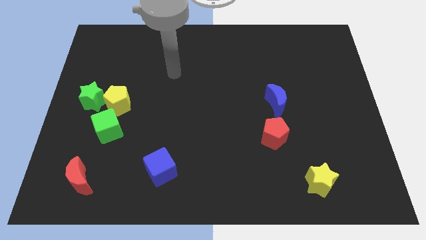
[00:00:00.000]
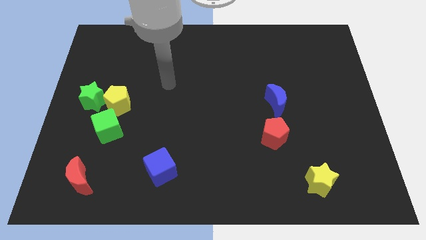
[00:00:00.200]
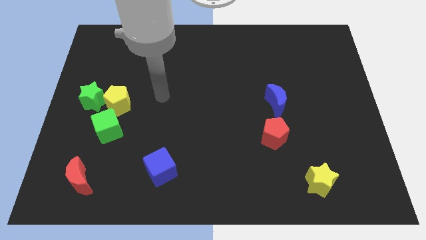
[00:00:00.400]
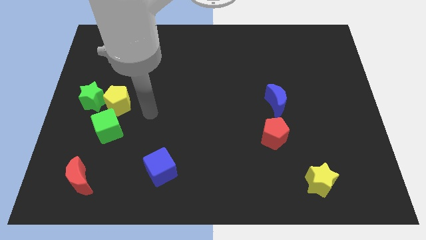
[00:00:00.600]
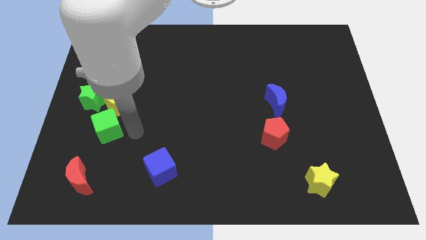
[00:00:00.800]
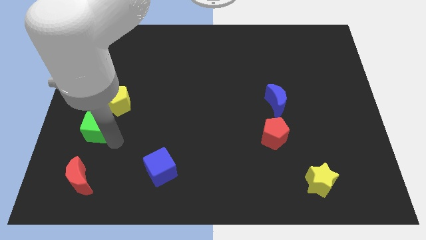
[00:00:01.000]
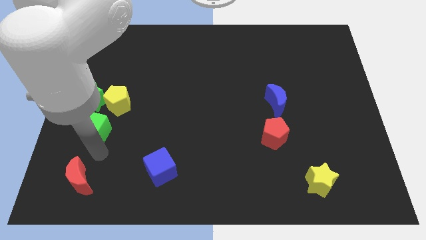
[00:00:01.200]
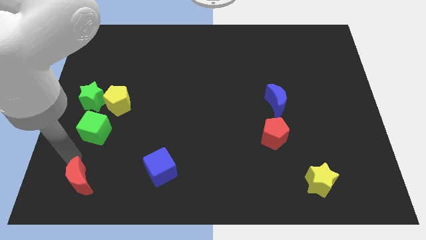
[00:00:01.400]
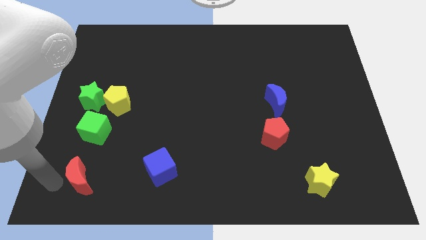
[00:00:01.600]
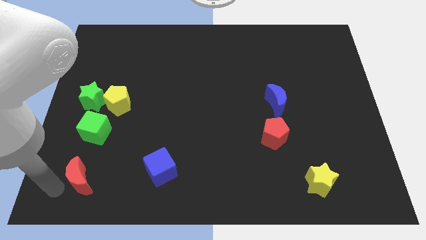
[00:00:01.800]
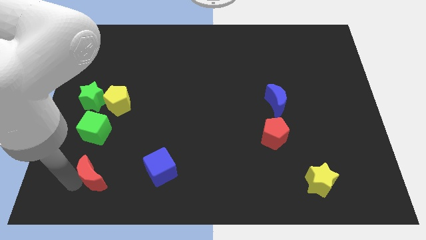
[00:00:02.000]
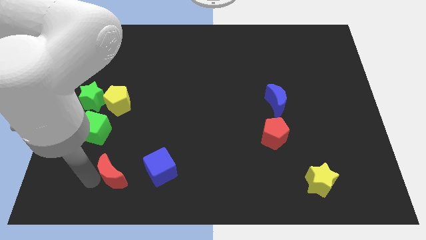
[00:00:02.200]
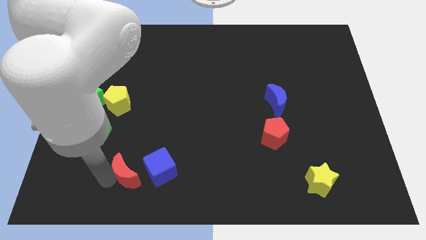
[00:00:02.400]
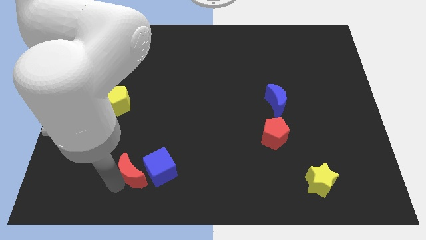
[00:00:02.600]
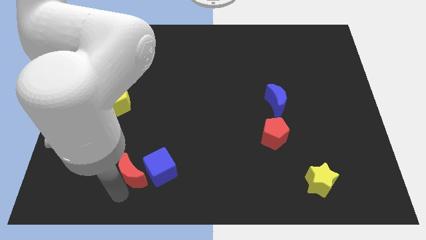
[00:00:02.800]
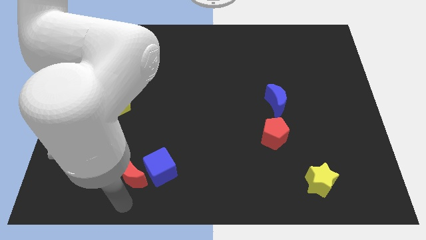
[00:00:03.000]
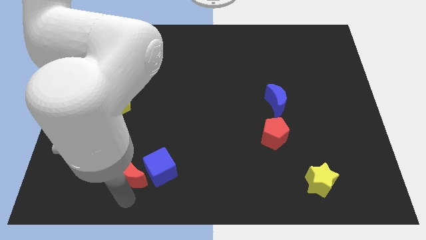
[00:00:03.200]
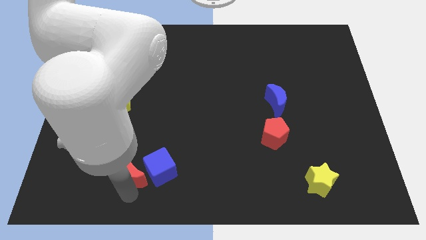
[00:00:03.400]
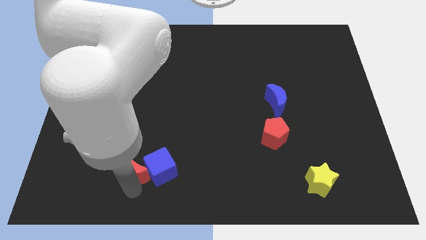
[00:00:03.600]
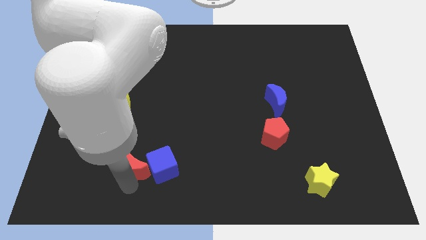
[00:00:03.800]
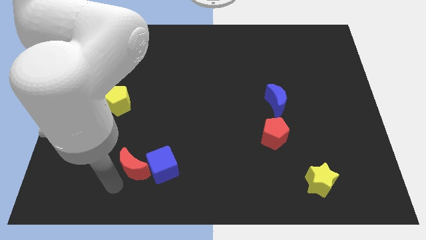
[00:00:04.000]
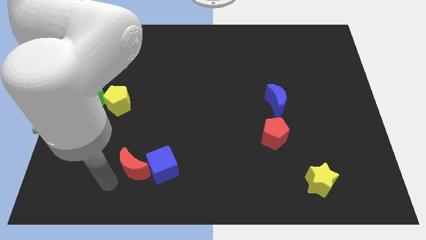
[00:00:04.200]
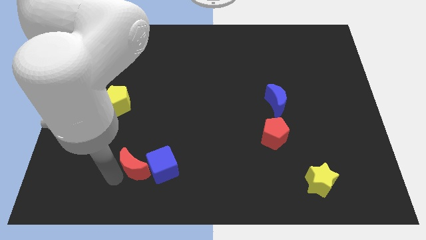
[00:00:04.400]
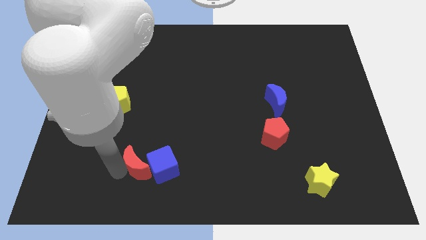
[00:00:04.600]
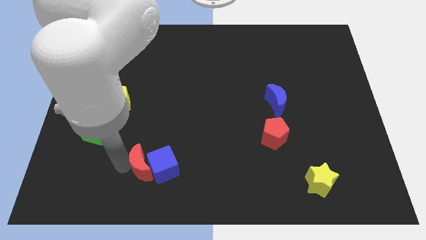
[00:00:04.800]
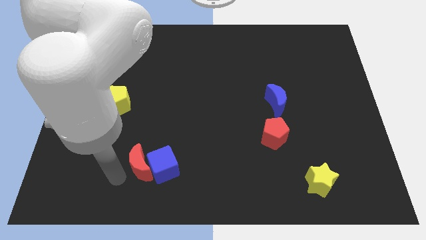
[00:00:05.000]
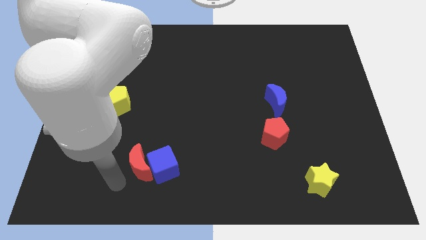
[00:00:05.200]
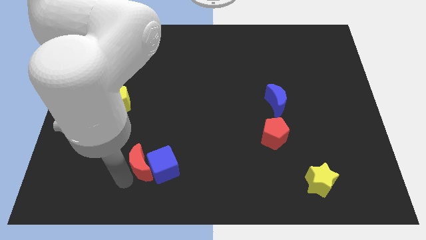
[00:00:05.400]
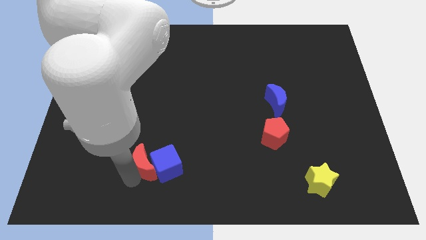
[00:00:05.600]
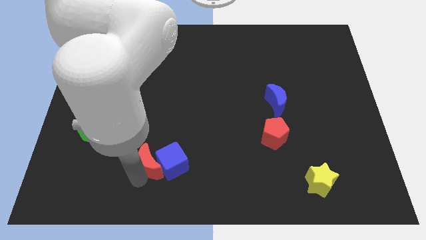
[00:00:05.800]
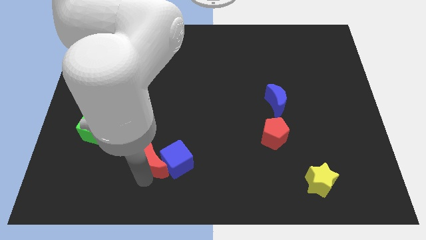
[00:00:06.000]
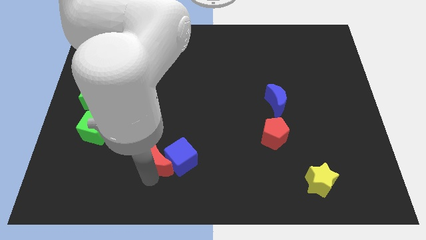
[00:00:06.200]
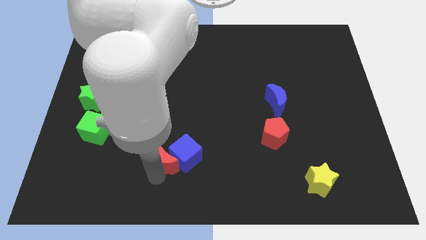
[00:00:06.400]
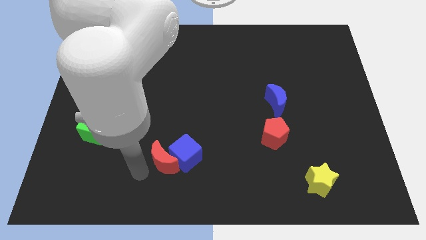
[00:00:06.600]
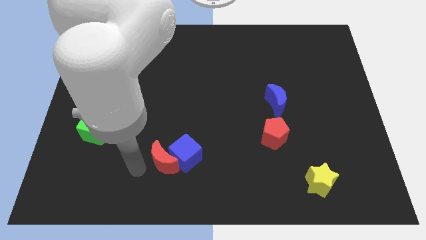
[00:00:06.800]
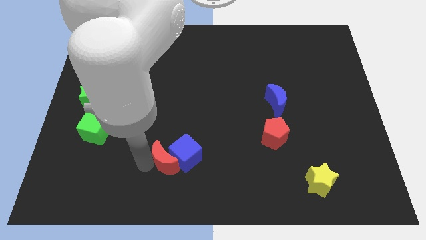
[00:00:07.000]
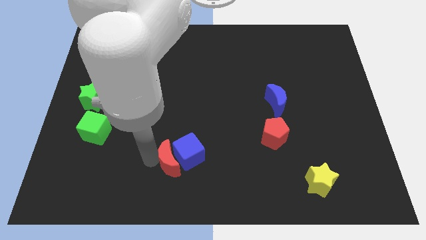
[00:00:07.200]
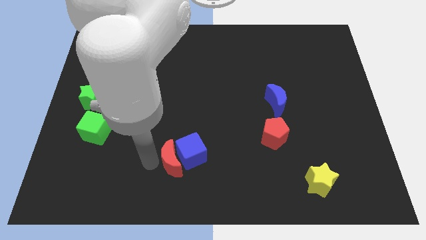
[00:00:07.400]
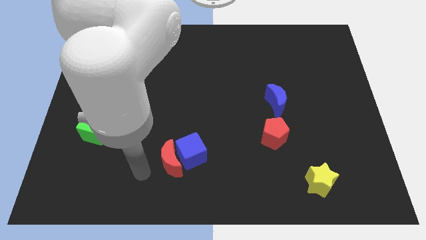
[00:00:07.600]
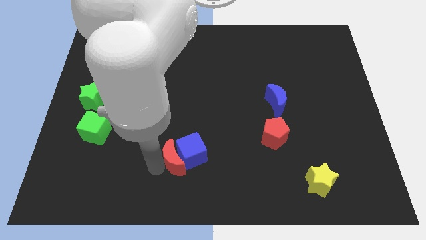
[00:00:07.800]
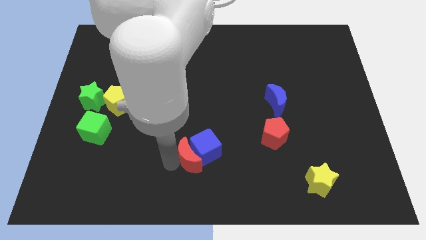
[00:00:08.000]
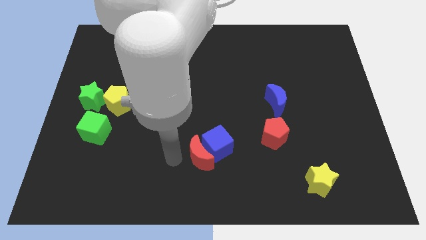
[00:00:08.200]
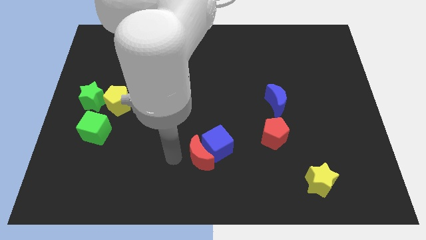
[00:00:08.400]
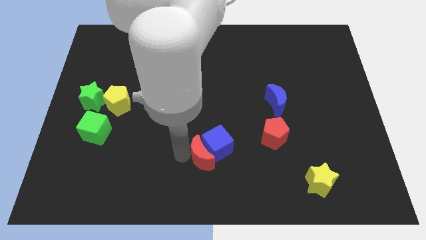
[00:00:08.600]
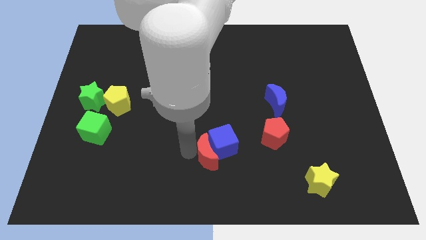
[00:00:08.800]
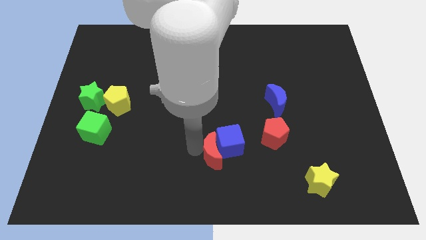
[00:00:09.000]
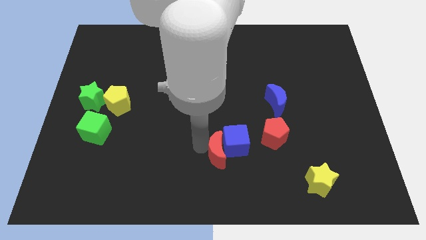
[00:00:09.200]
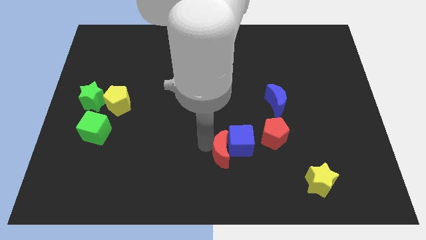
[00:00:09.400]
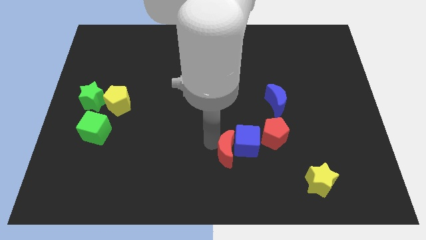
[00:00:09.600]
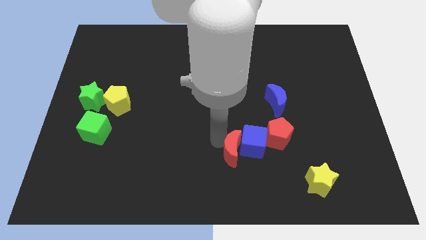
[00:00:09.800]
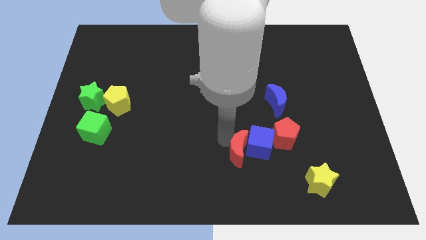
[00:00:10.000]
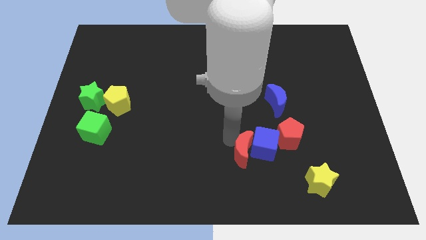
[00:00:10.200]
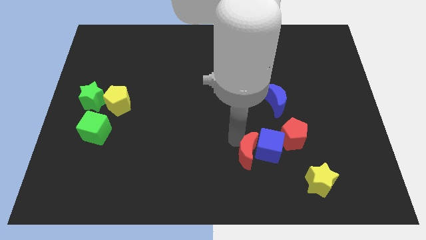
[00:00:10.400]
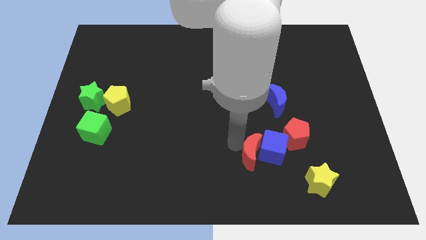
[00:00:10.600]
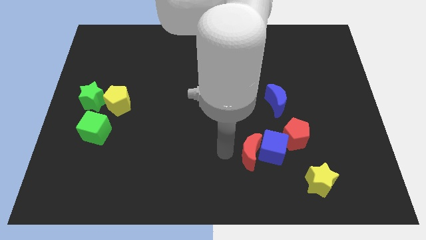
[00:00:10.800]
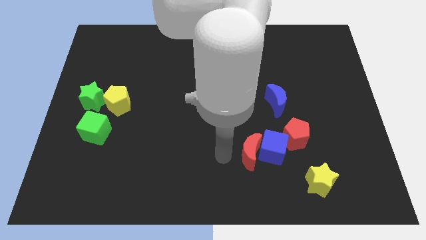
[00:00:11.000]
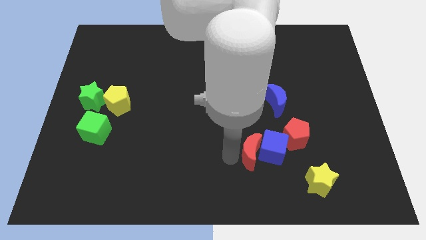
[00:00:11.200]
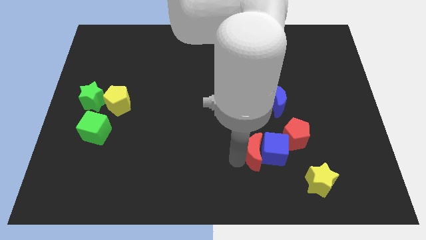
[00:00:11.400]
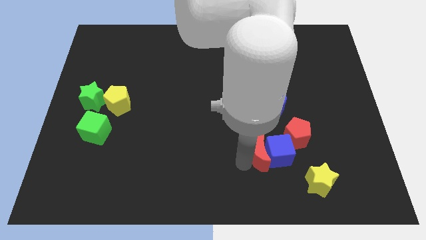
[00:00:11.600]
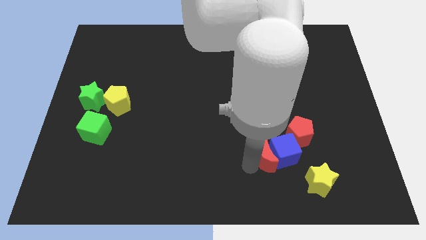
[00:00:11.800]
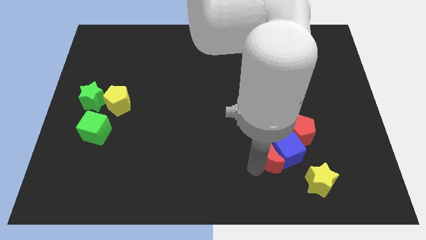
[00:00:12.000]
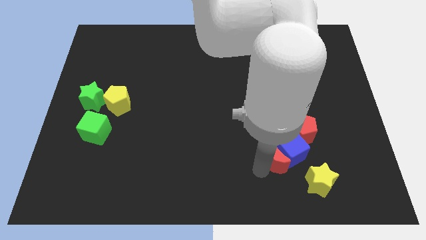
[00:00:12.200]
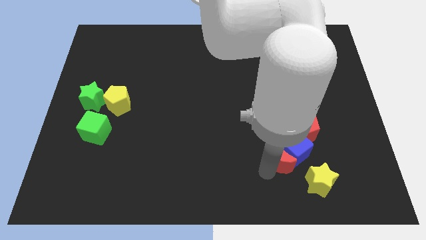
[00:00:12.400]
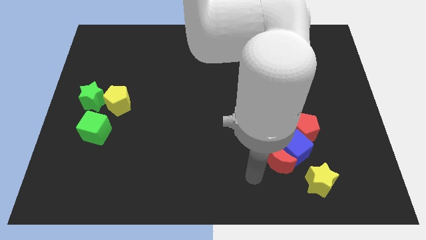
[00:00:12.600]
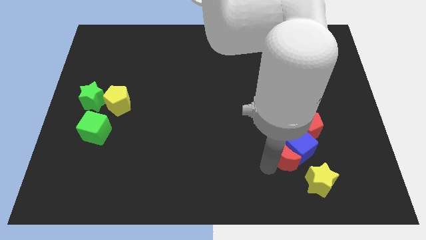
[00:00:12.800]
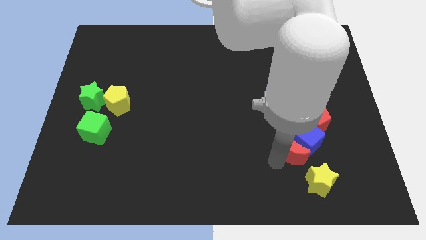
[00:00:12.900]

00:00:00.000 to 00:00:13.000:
move the red moon to the top of the yellow star
